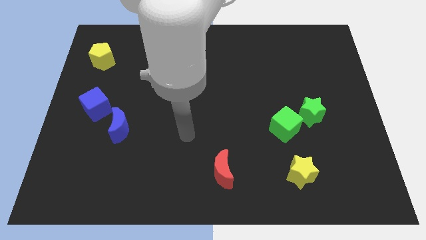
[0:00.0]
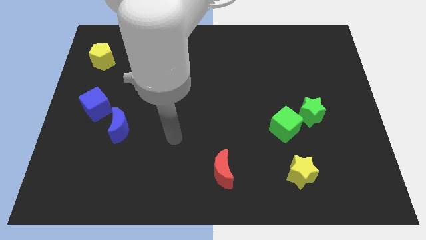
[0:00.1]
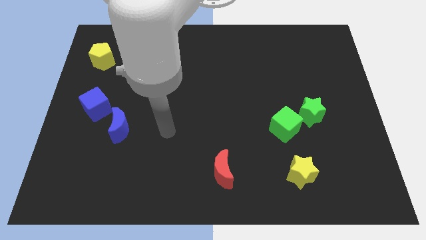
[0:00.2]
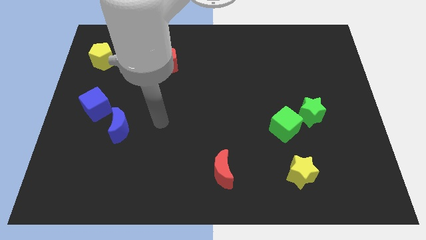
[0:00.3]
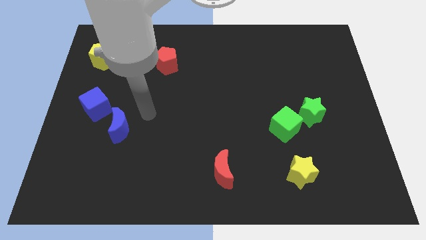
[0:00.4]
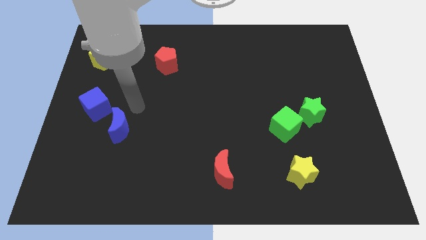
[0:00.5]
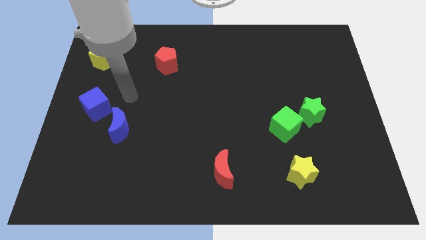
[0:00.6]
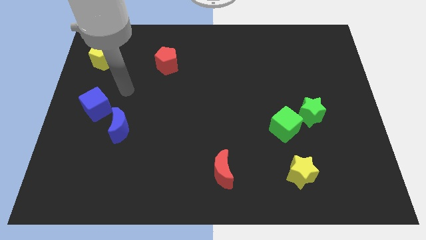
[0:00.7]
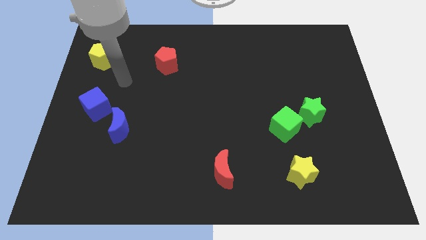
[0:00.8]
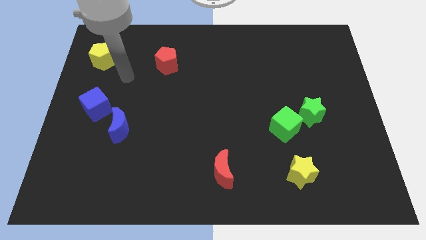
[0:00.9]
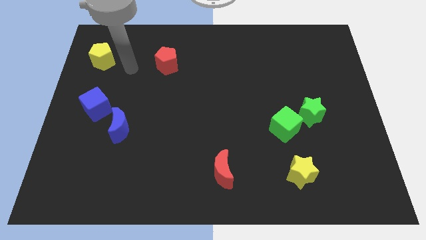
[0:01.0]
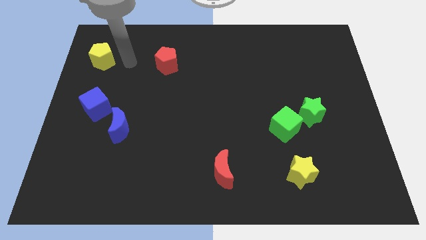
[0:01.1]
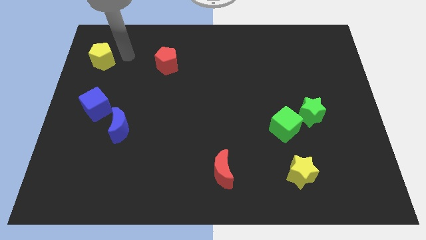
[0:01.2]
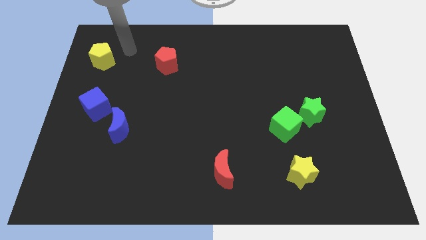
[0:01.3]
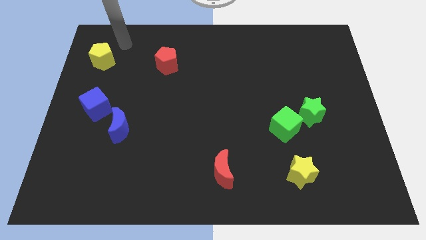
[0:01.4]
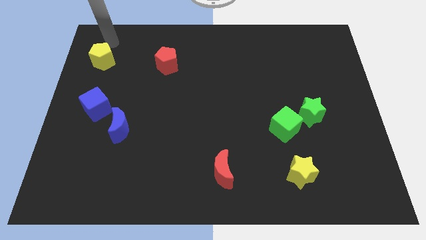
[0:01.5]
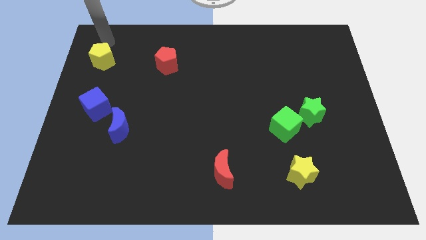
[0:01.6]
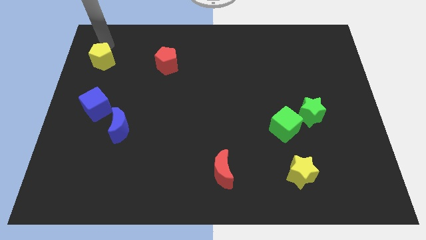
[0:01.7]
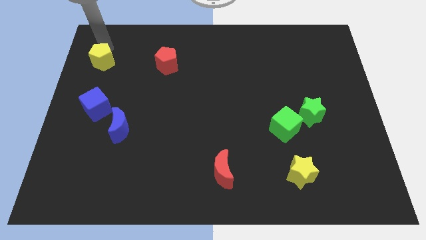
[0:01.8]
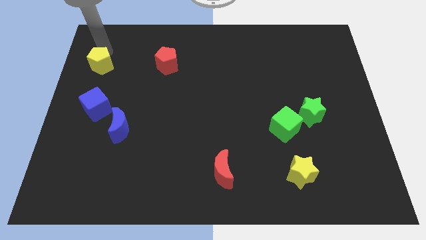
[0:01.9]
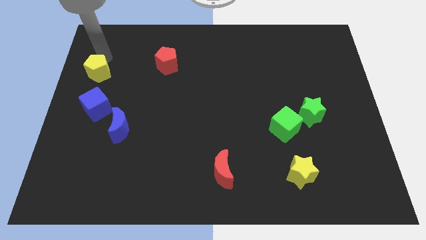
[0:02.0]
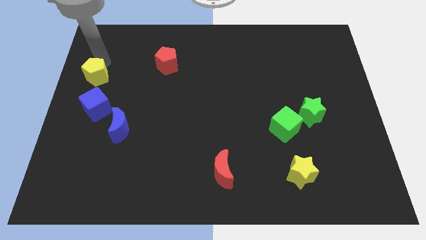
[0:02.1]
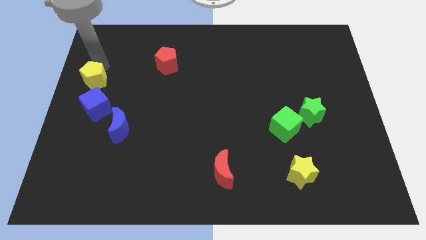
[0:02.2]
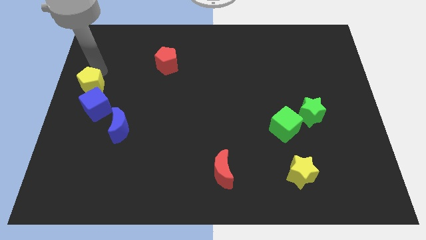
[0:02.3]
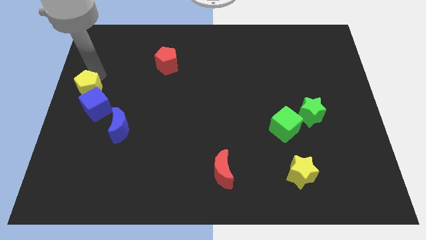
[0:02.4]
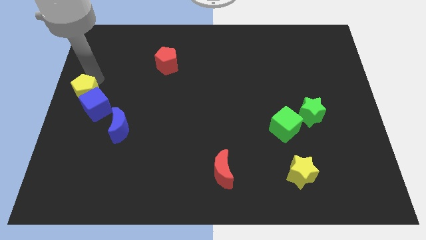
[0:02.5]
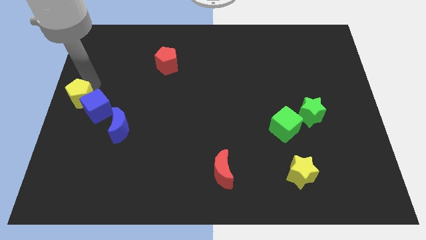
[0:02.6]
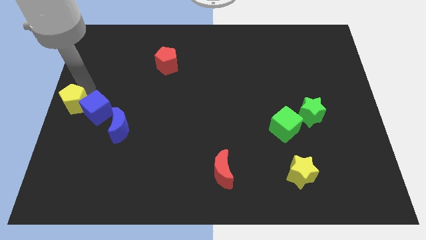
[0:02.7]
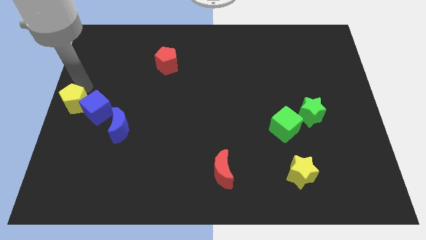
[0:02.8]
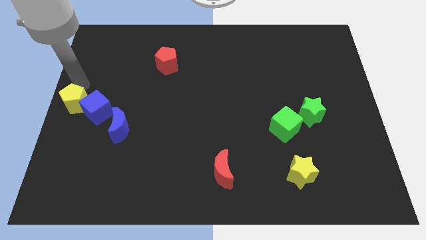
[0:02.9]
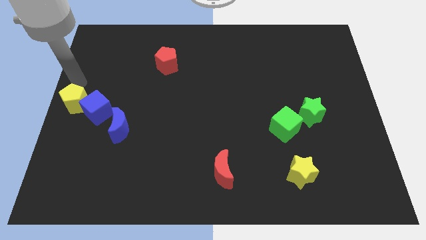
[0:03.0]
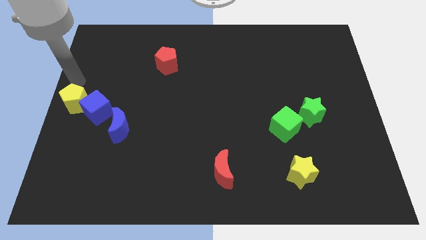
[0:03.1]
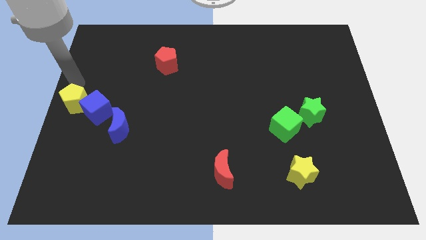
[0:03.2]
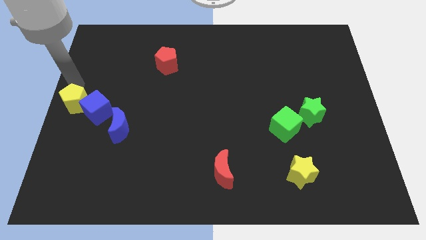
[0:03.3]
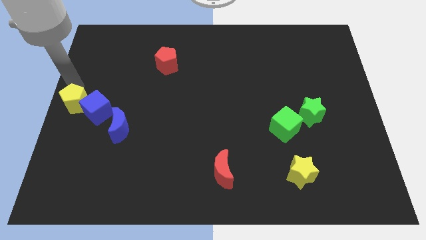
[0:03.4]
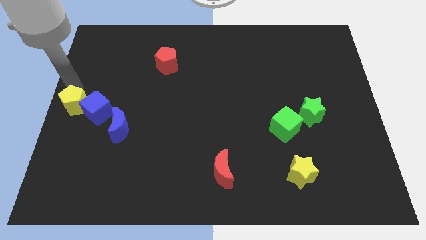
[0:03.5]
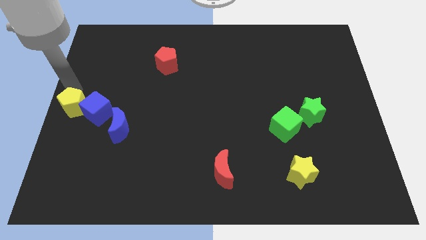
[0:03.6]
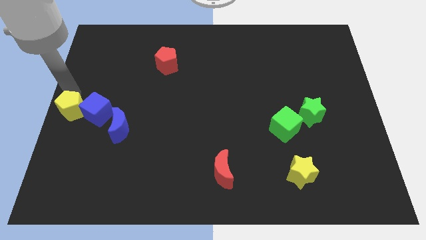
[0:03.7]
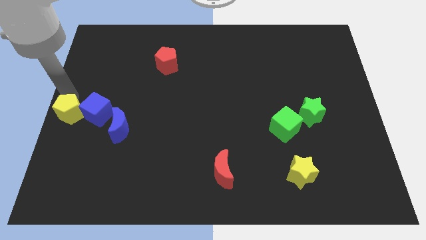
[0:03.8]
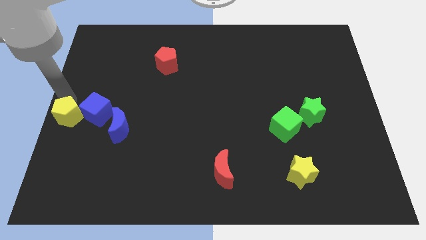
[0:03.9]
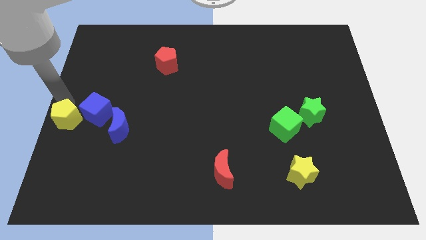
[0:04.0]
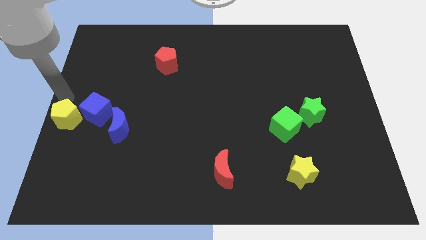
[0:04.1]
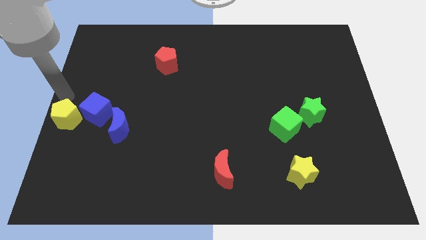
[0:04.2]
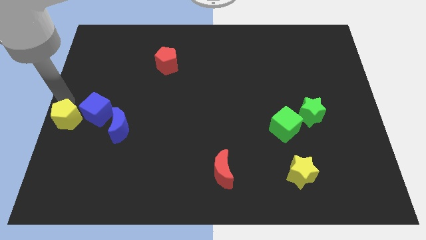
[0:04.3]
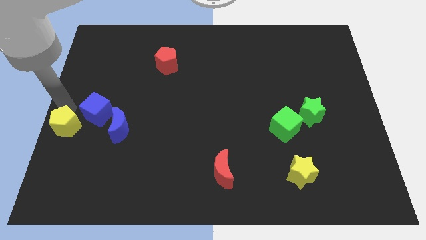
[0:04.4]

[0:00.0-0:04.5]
slide the yellow pentagon downwards

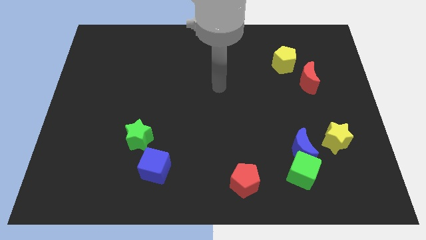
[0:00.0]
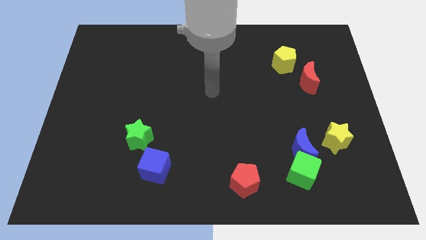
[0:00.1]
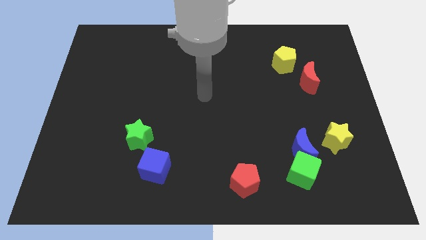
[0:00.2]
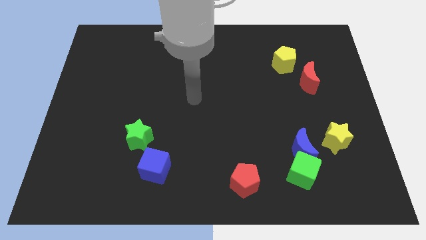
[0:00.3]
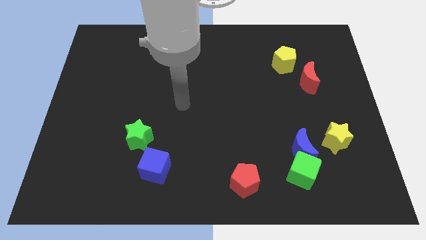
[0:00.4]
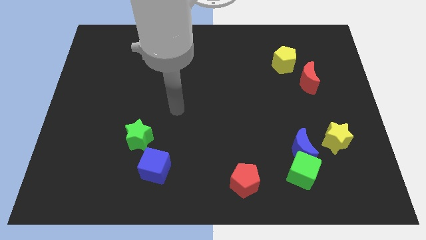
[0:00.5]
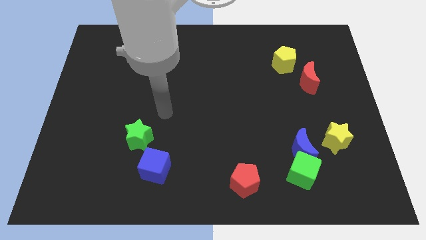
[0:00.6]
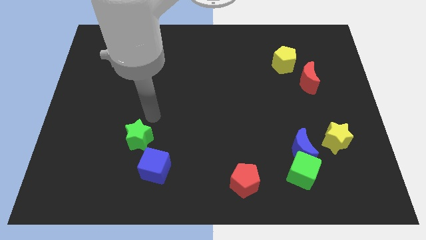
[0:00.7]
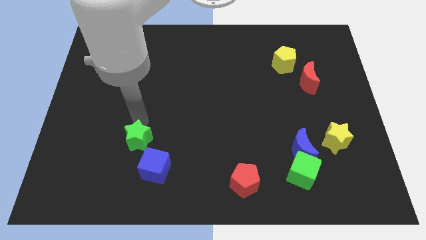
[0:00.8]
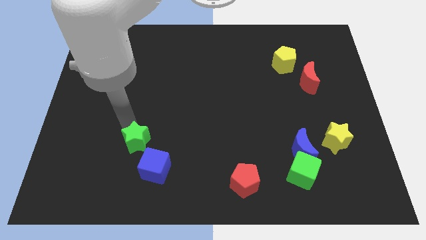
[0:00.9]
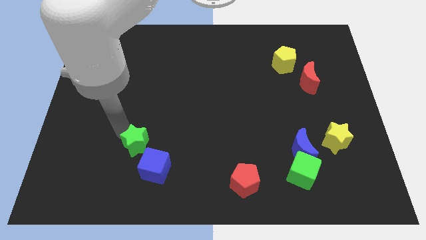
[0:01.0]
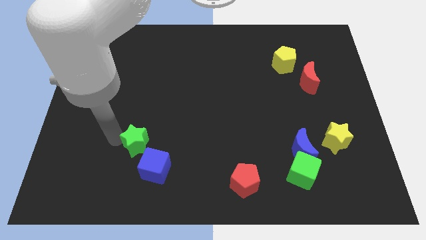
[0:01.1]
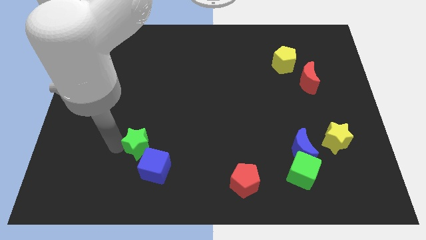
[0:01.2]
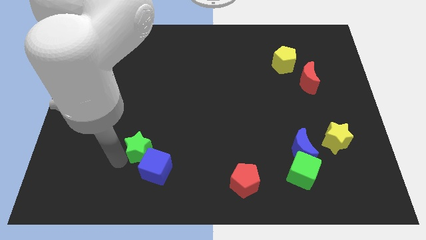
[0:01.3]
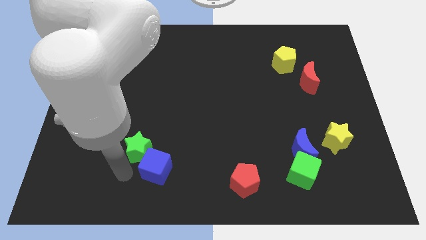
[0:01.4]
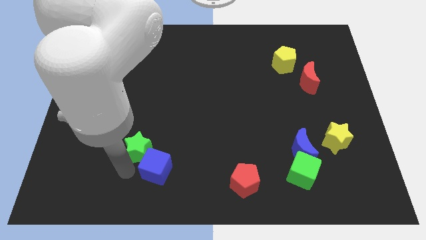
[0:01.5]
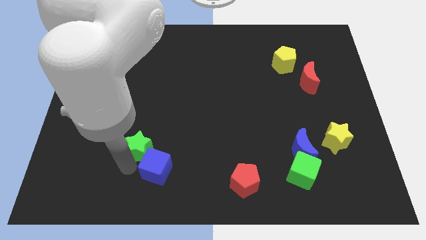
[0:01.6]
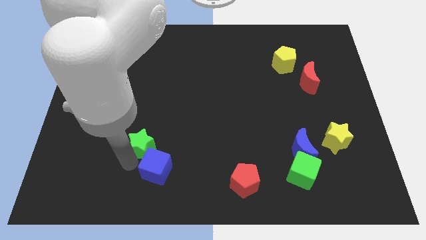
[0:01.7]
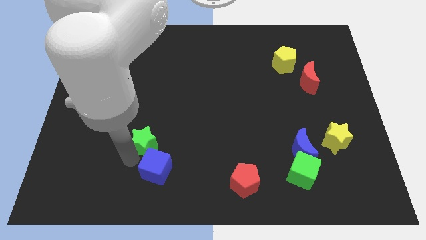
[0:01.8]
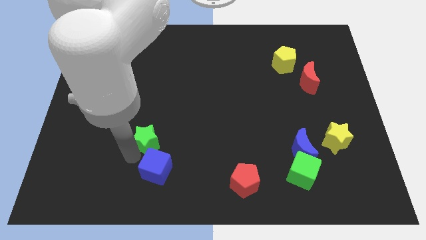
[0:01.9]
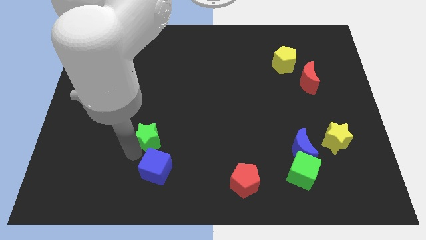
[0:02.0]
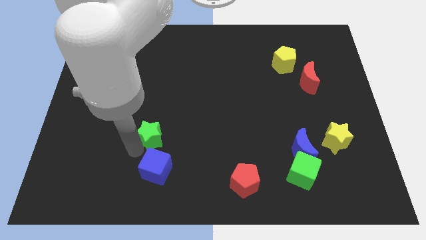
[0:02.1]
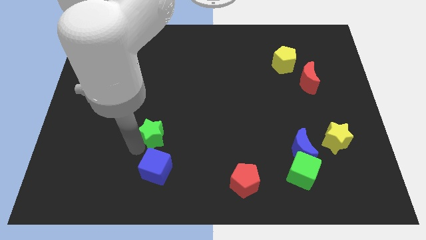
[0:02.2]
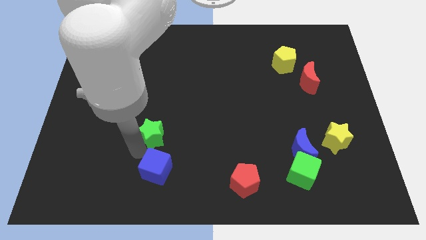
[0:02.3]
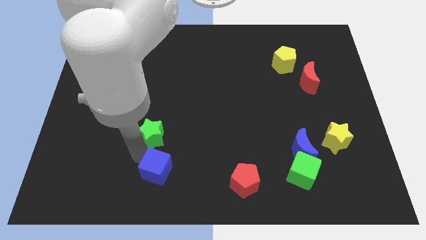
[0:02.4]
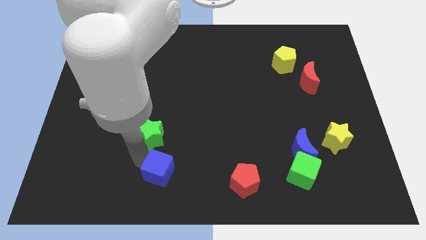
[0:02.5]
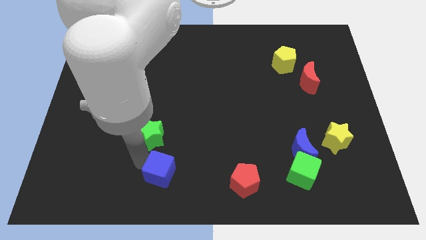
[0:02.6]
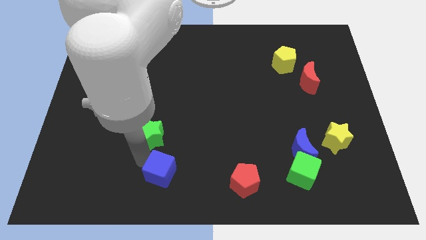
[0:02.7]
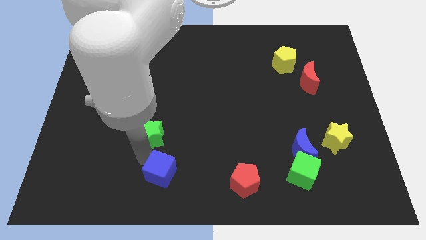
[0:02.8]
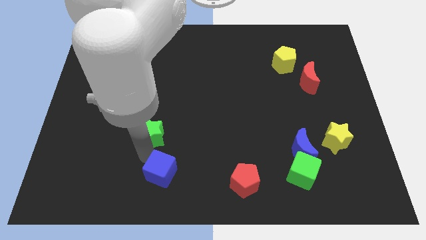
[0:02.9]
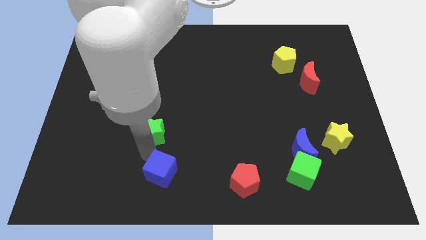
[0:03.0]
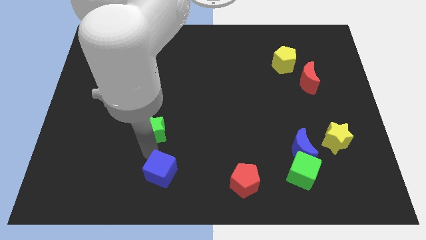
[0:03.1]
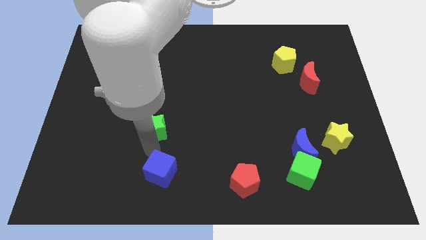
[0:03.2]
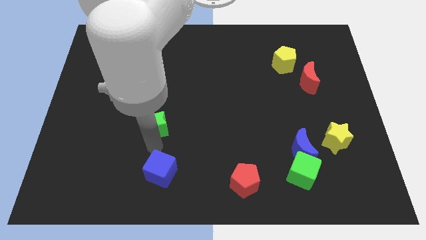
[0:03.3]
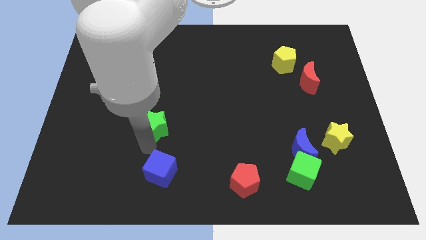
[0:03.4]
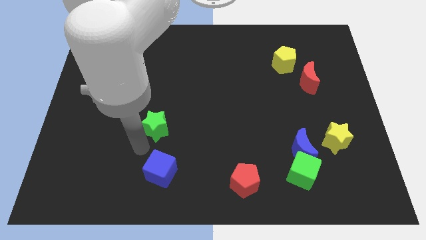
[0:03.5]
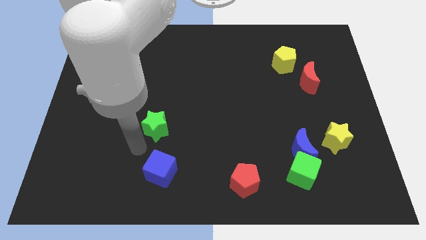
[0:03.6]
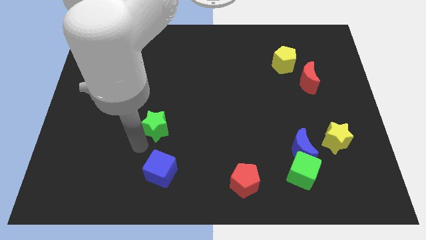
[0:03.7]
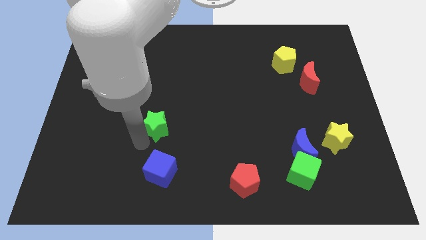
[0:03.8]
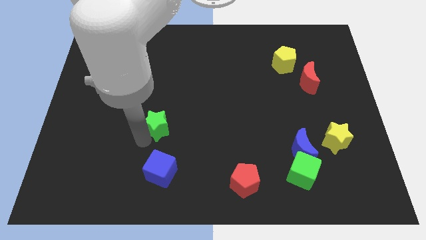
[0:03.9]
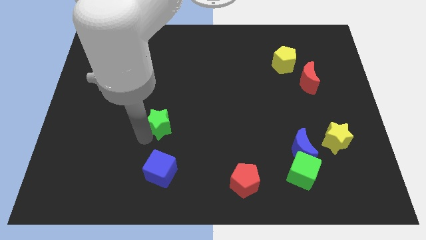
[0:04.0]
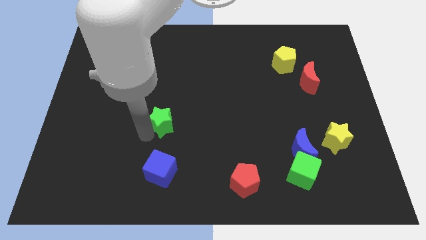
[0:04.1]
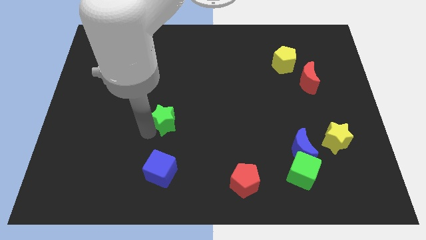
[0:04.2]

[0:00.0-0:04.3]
move the green star up and then to the right a little
